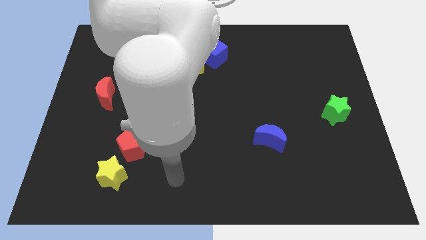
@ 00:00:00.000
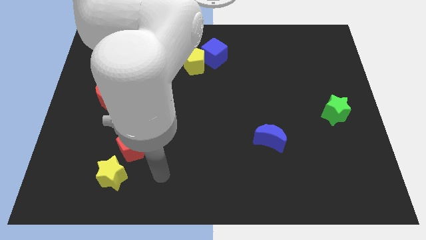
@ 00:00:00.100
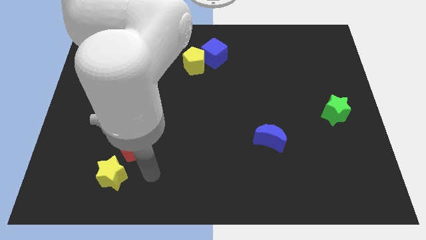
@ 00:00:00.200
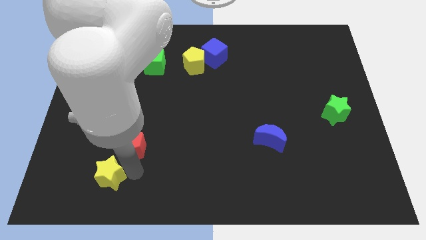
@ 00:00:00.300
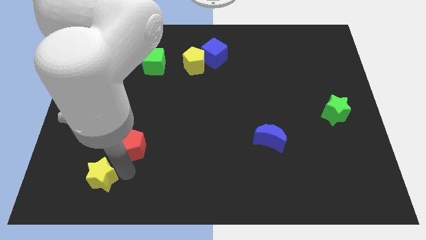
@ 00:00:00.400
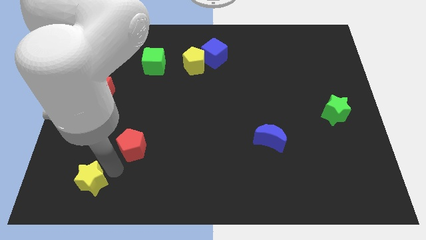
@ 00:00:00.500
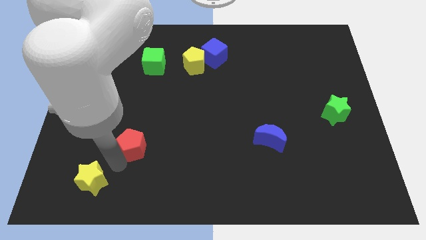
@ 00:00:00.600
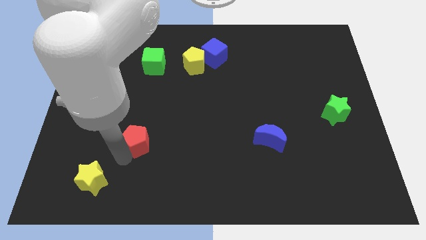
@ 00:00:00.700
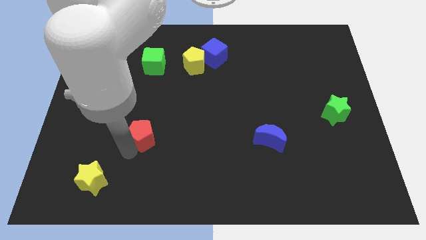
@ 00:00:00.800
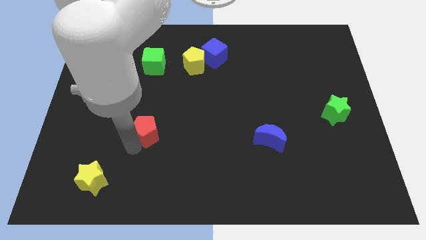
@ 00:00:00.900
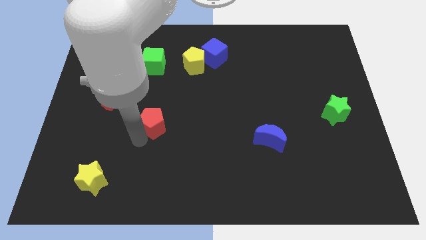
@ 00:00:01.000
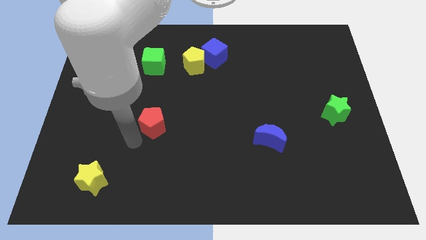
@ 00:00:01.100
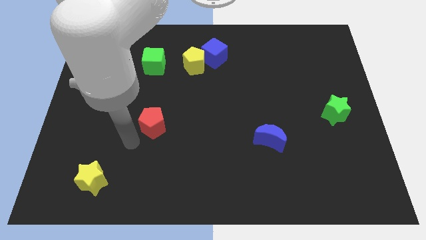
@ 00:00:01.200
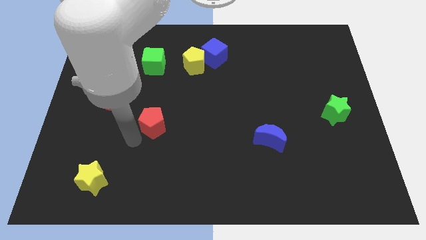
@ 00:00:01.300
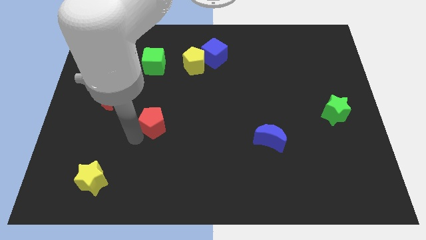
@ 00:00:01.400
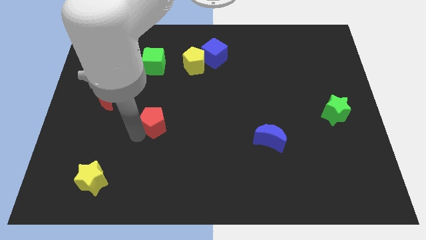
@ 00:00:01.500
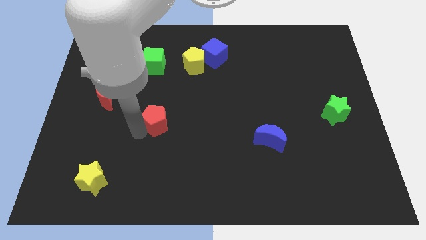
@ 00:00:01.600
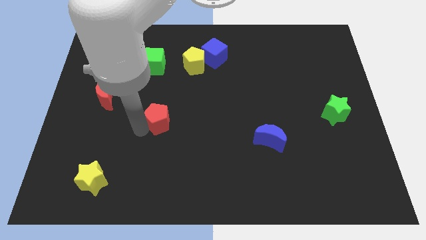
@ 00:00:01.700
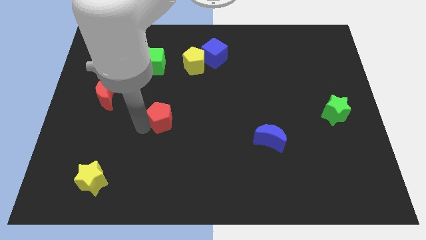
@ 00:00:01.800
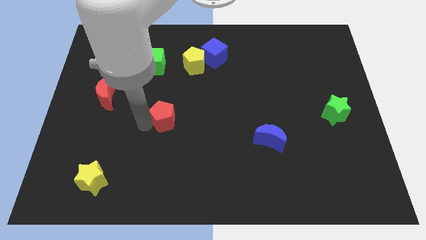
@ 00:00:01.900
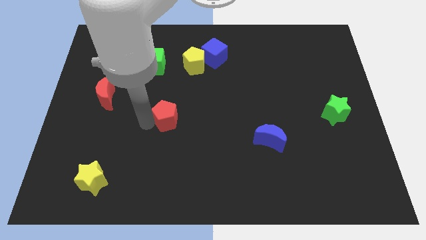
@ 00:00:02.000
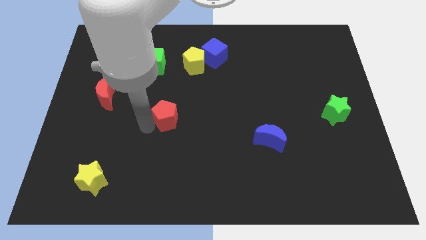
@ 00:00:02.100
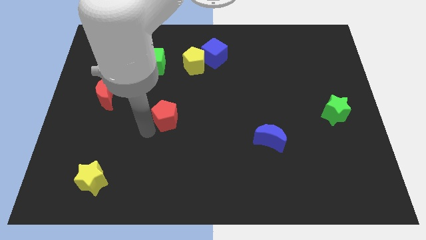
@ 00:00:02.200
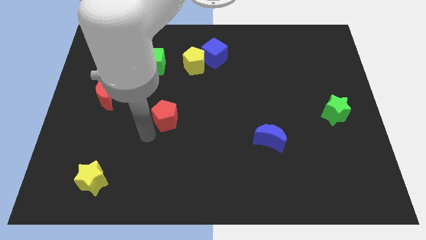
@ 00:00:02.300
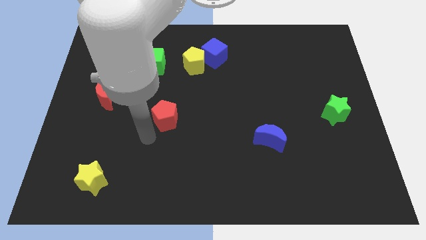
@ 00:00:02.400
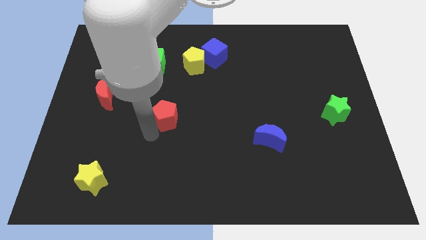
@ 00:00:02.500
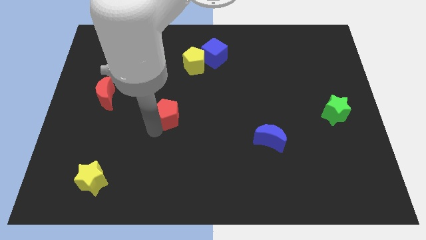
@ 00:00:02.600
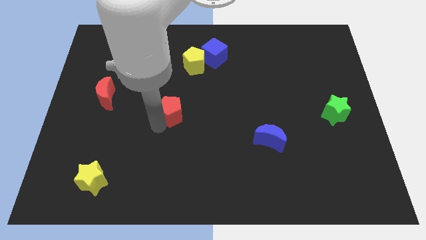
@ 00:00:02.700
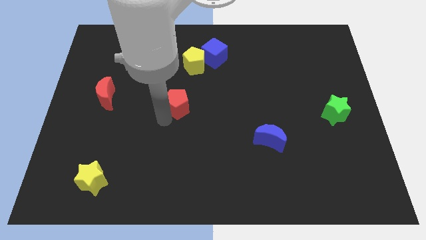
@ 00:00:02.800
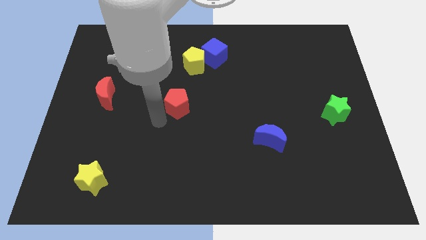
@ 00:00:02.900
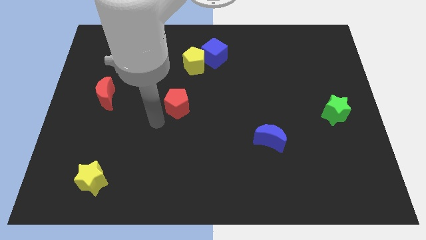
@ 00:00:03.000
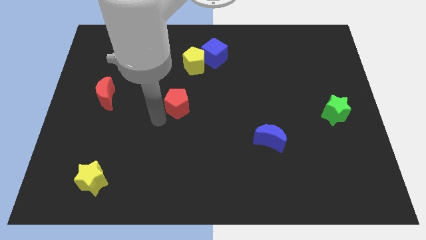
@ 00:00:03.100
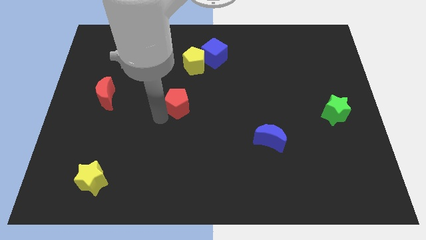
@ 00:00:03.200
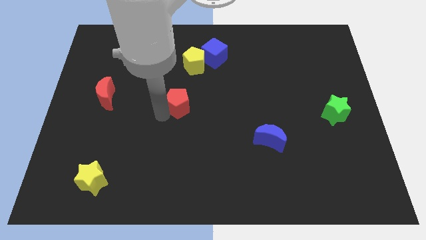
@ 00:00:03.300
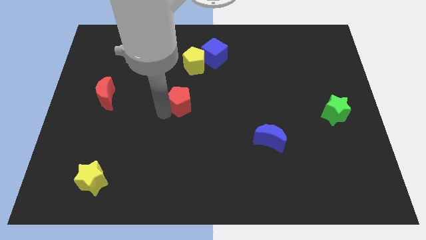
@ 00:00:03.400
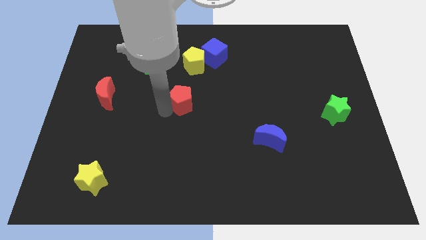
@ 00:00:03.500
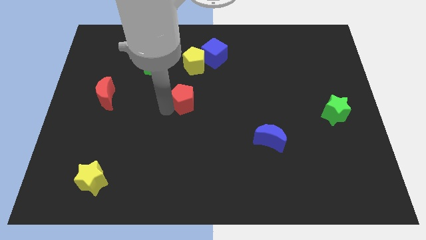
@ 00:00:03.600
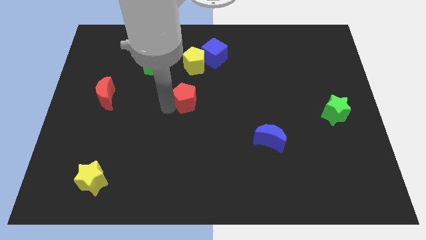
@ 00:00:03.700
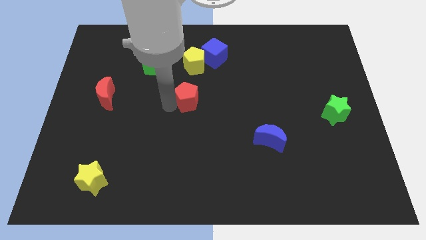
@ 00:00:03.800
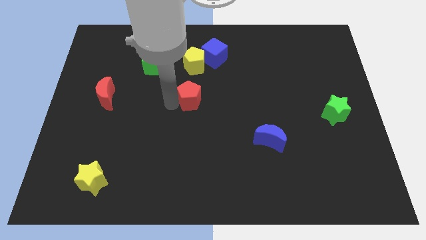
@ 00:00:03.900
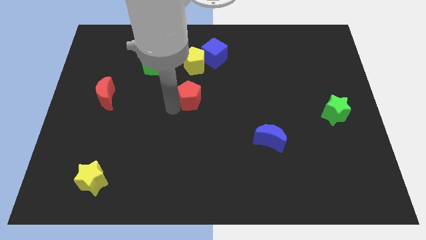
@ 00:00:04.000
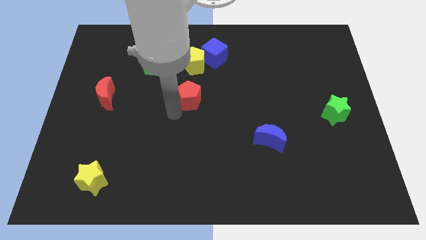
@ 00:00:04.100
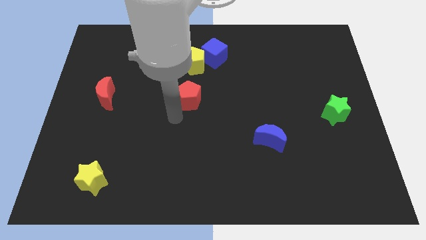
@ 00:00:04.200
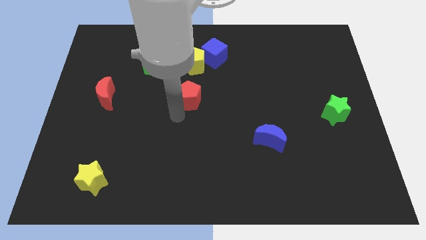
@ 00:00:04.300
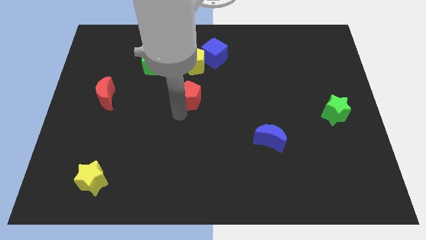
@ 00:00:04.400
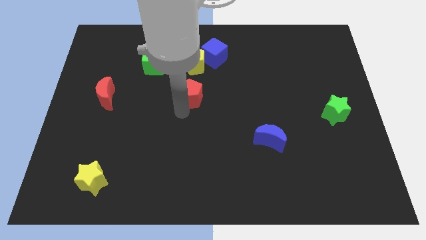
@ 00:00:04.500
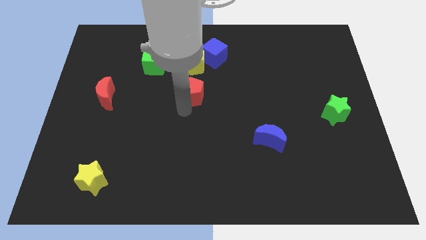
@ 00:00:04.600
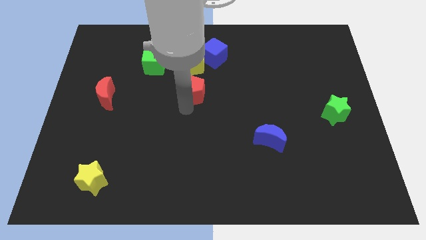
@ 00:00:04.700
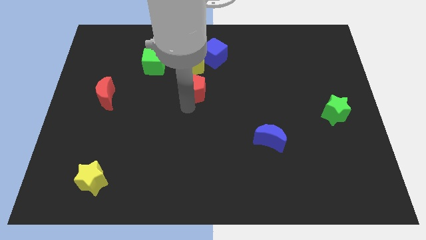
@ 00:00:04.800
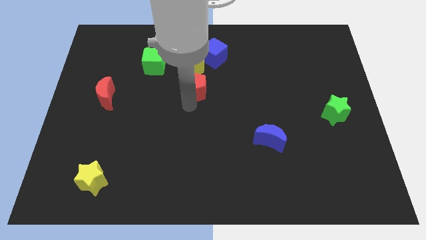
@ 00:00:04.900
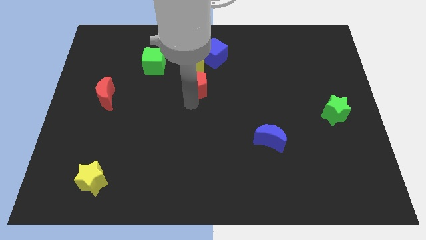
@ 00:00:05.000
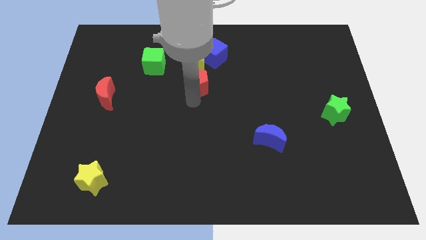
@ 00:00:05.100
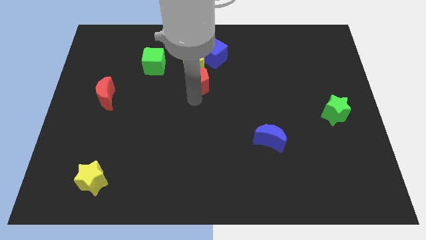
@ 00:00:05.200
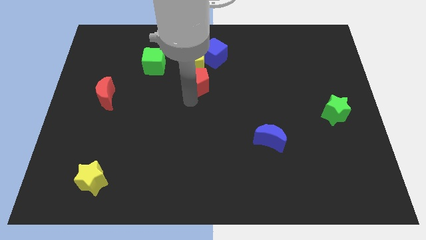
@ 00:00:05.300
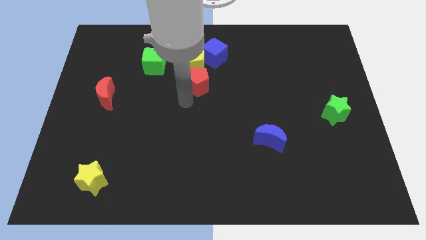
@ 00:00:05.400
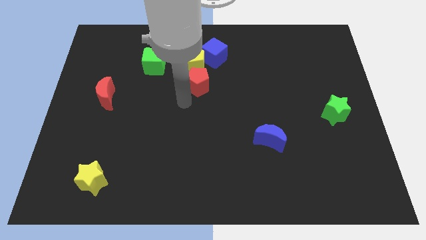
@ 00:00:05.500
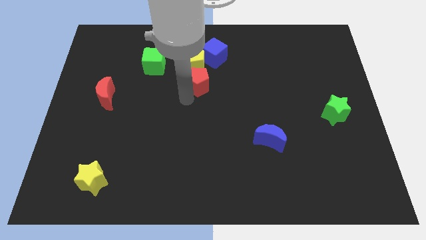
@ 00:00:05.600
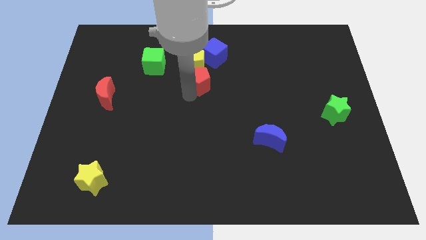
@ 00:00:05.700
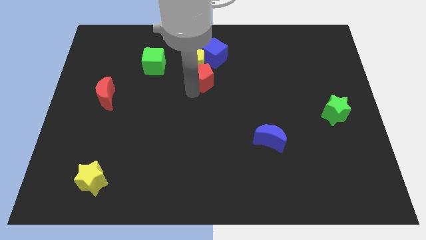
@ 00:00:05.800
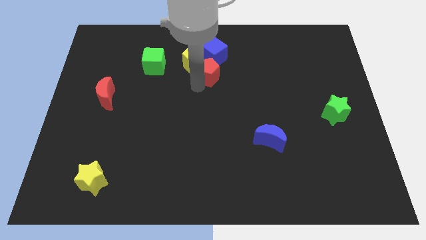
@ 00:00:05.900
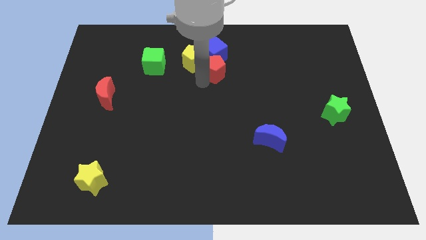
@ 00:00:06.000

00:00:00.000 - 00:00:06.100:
push the red pentagon close to the blue cube
